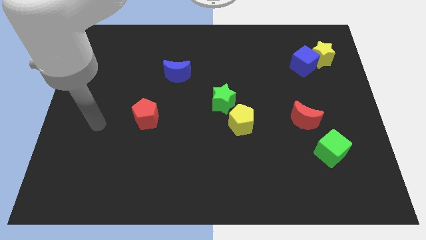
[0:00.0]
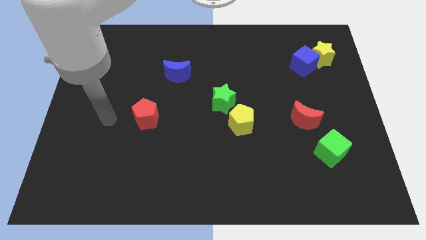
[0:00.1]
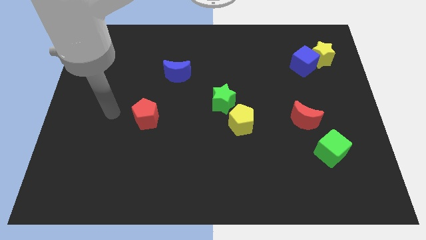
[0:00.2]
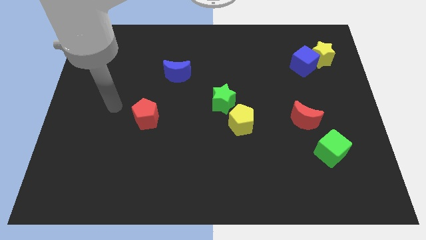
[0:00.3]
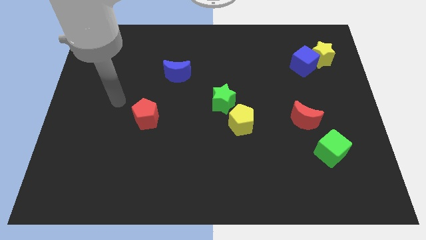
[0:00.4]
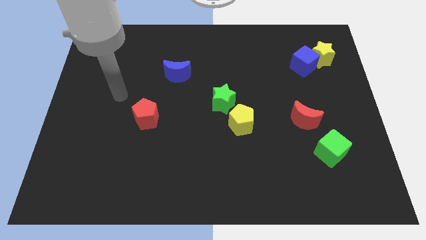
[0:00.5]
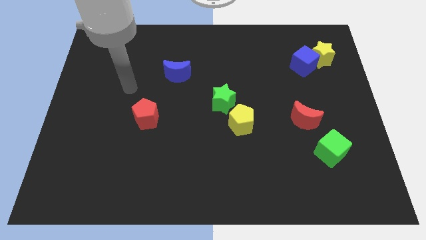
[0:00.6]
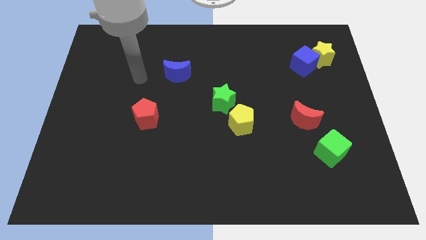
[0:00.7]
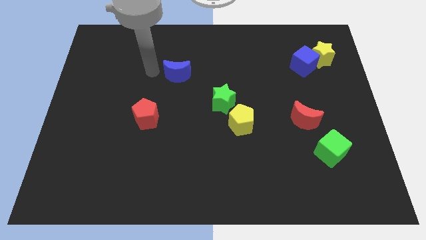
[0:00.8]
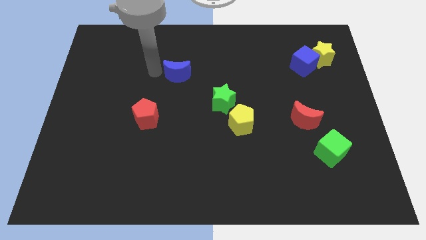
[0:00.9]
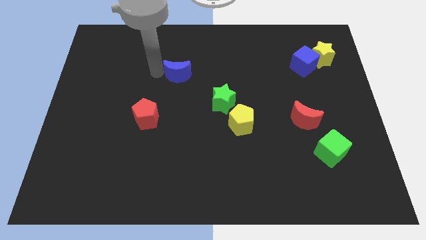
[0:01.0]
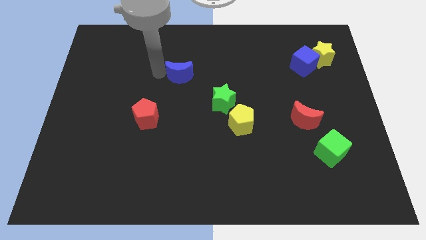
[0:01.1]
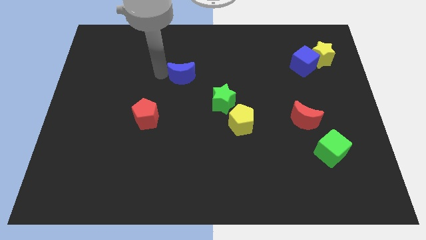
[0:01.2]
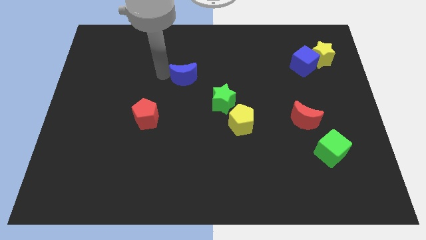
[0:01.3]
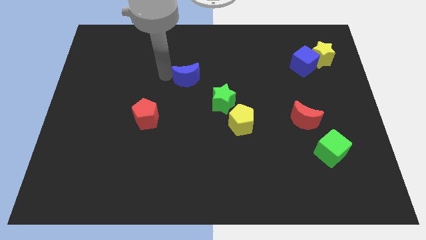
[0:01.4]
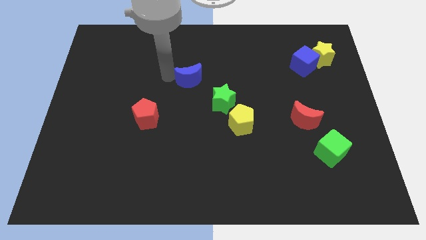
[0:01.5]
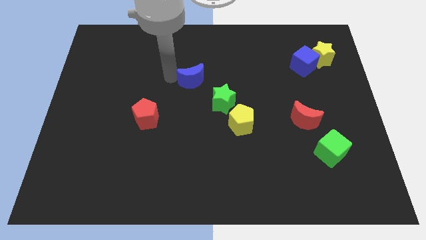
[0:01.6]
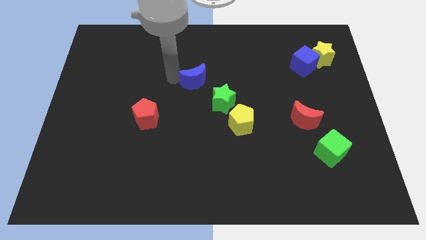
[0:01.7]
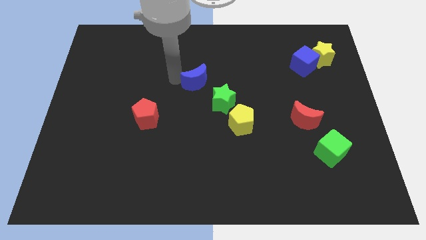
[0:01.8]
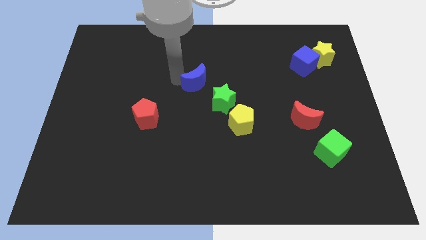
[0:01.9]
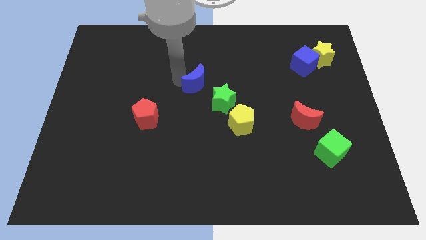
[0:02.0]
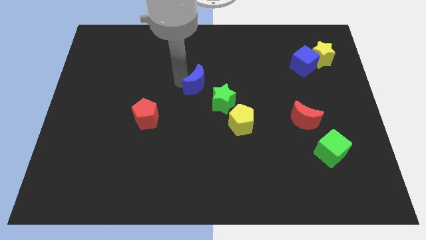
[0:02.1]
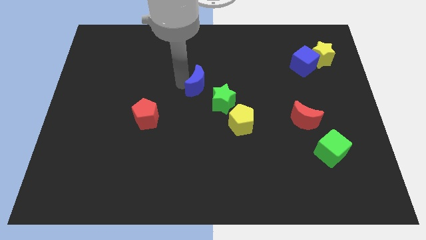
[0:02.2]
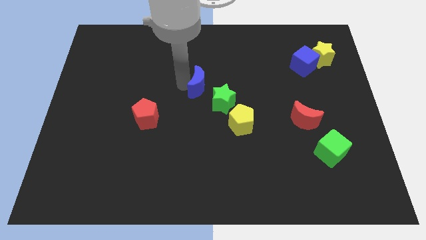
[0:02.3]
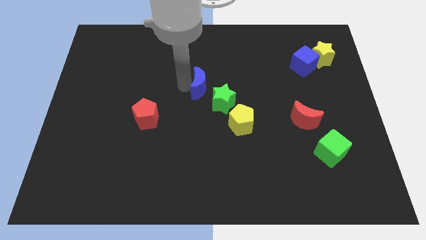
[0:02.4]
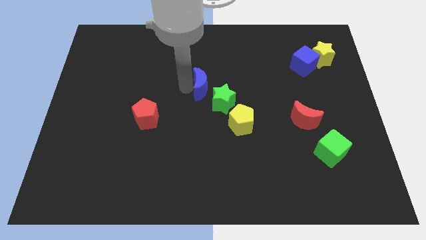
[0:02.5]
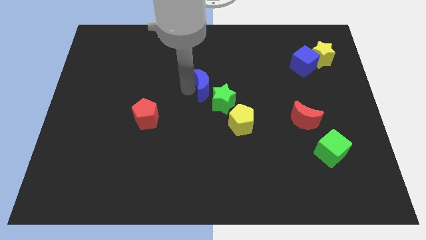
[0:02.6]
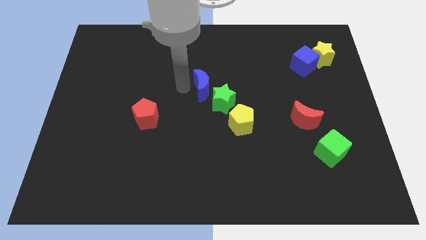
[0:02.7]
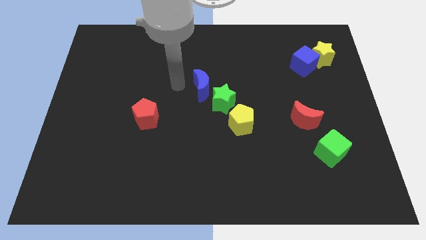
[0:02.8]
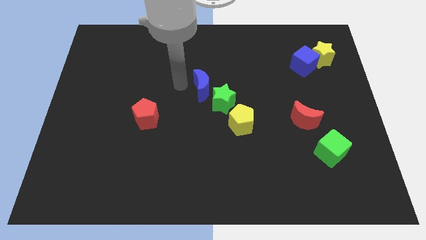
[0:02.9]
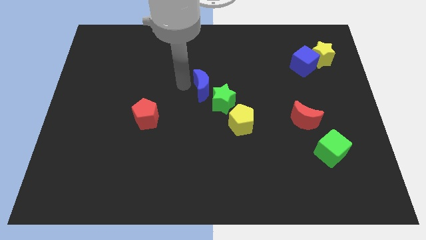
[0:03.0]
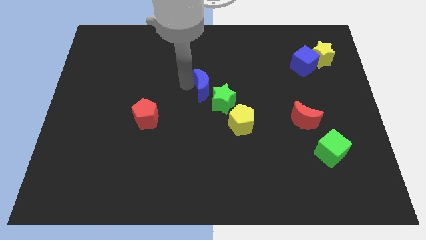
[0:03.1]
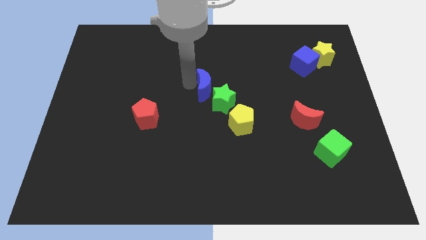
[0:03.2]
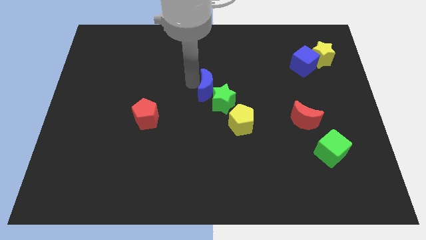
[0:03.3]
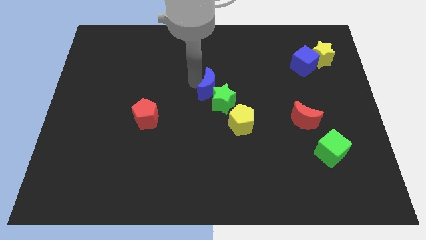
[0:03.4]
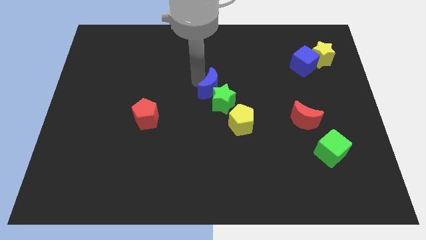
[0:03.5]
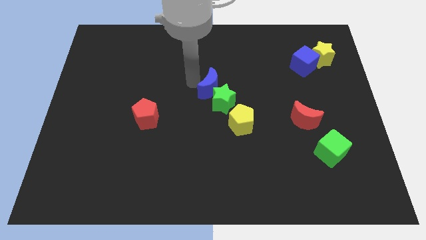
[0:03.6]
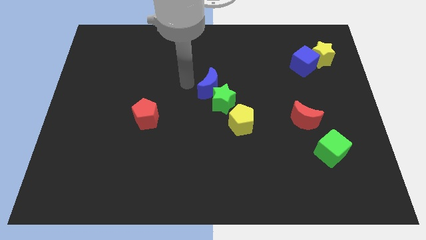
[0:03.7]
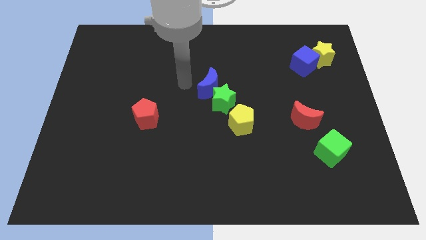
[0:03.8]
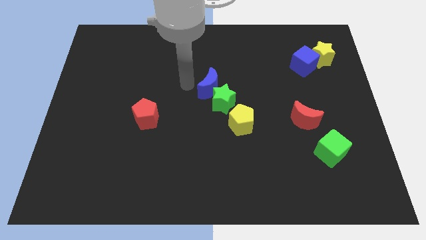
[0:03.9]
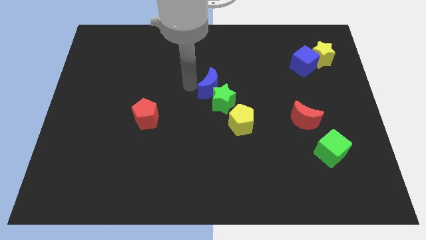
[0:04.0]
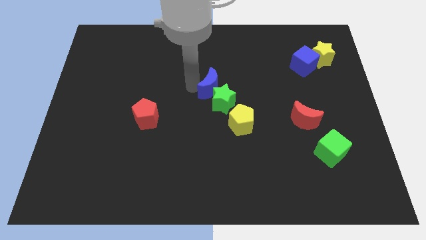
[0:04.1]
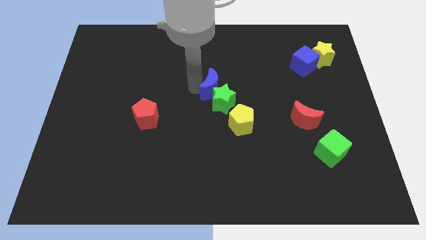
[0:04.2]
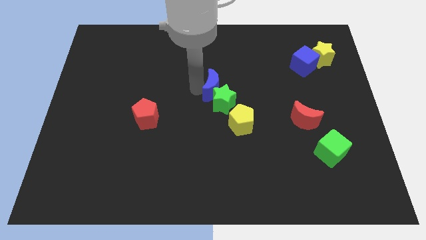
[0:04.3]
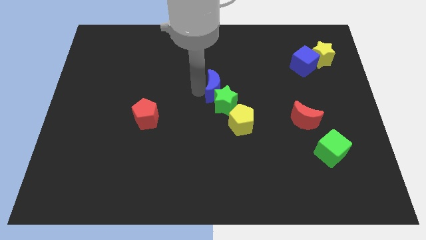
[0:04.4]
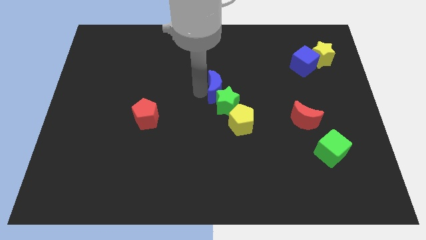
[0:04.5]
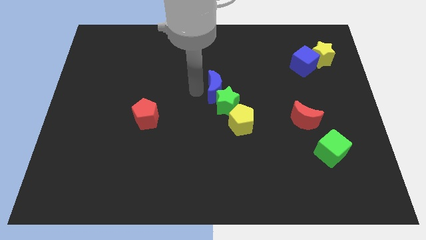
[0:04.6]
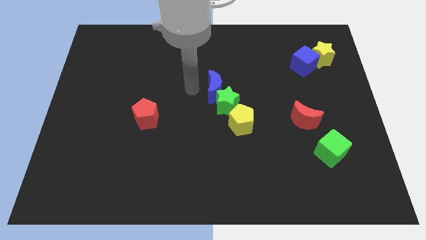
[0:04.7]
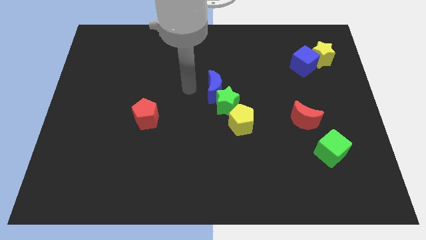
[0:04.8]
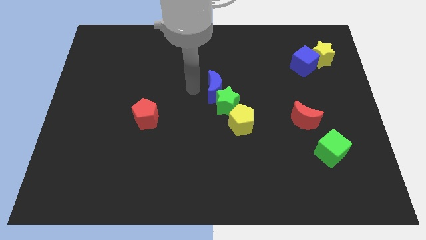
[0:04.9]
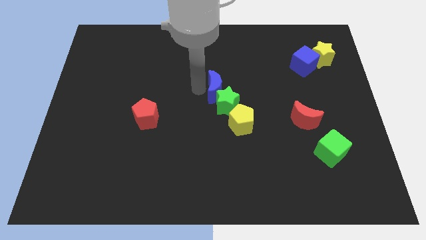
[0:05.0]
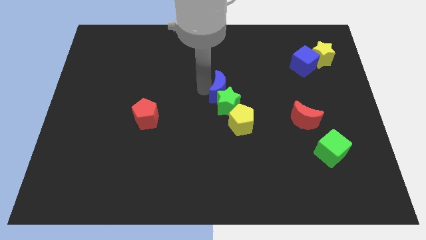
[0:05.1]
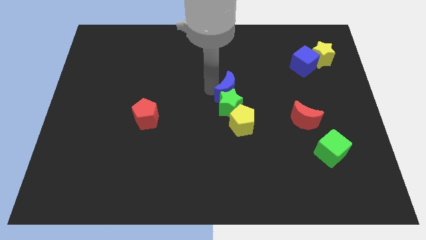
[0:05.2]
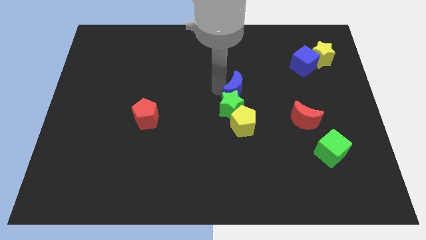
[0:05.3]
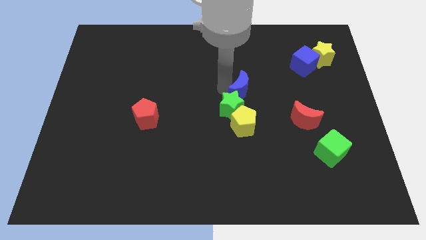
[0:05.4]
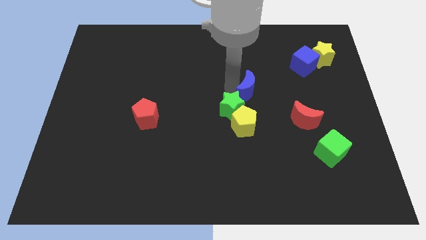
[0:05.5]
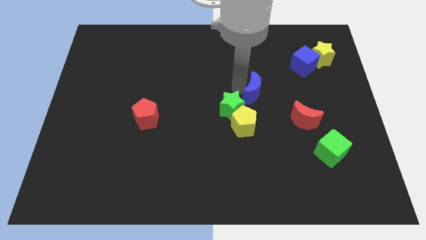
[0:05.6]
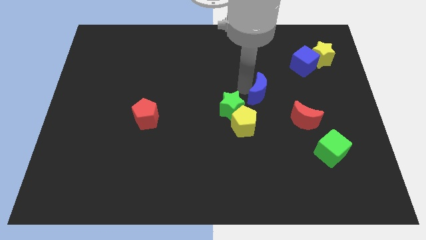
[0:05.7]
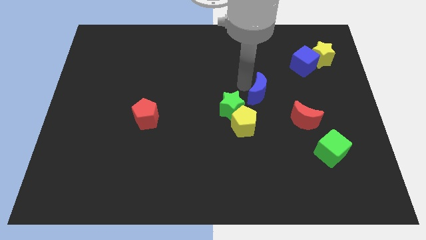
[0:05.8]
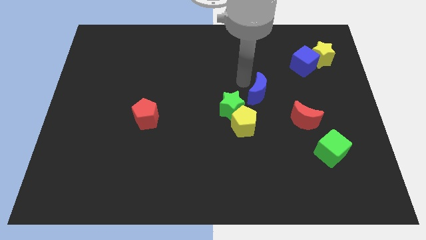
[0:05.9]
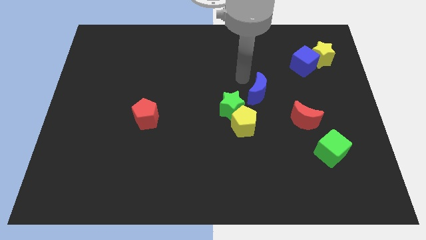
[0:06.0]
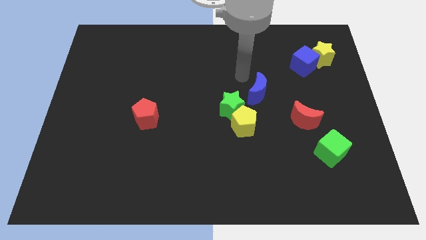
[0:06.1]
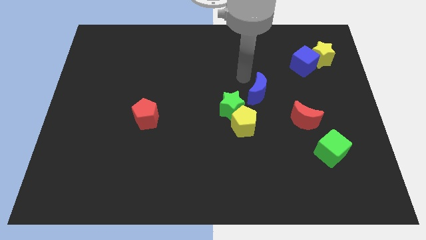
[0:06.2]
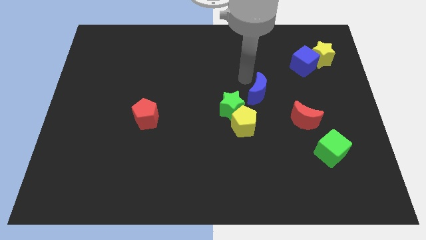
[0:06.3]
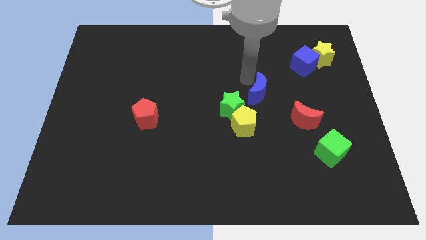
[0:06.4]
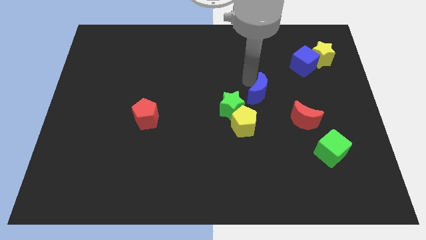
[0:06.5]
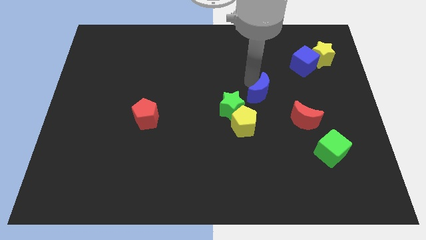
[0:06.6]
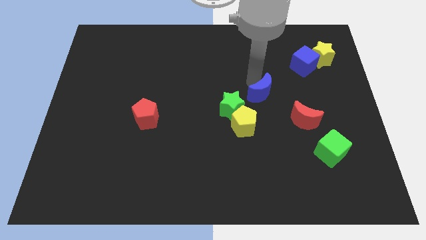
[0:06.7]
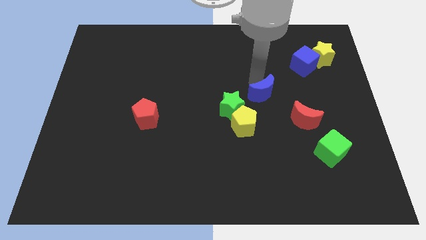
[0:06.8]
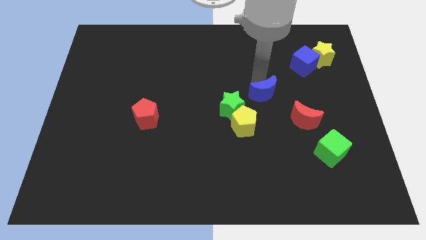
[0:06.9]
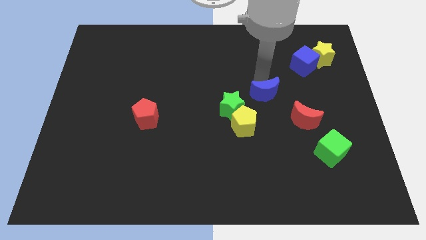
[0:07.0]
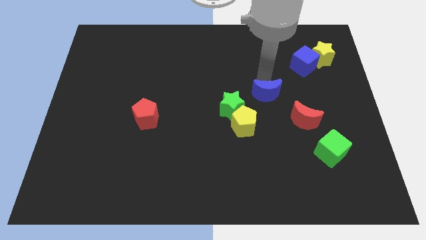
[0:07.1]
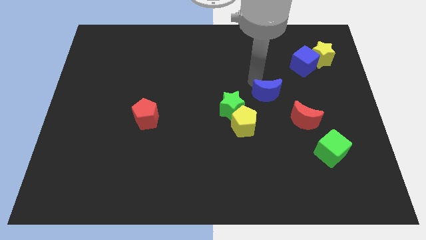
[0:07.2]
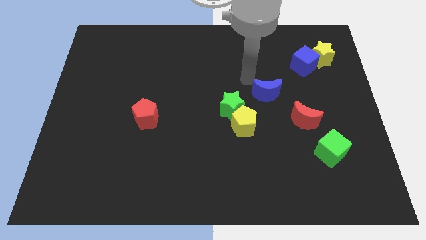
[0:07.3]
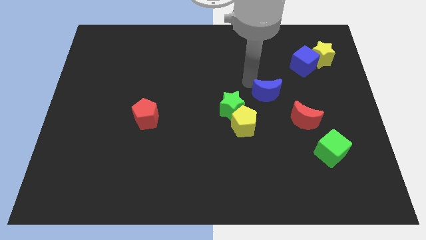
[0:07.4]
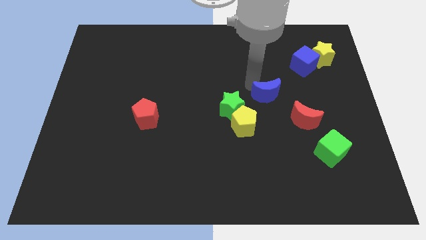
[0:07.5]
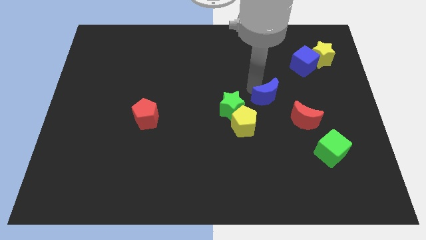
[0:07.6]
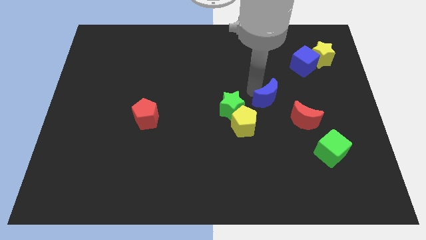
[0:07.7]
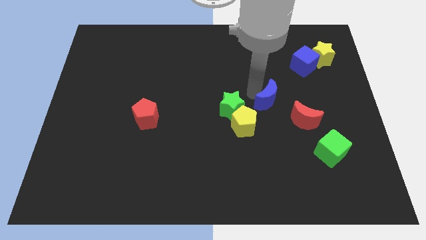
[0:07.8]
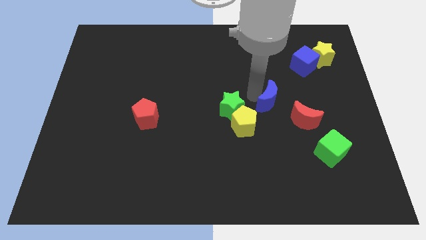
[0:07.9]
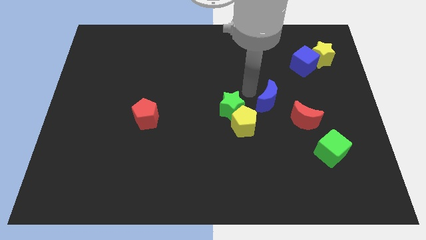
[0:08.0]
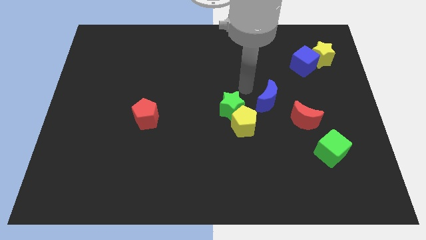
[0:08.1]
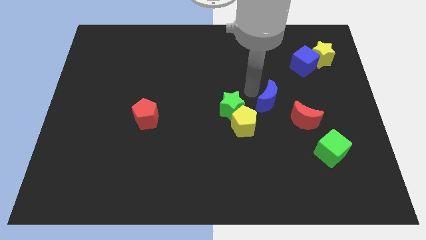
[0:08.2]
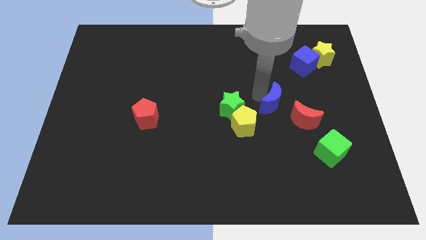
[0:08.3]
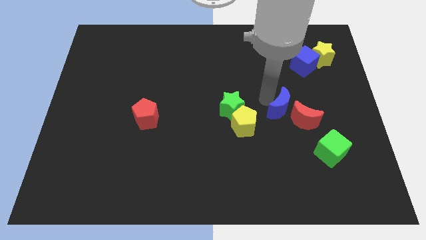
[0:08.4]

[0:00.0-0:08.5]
push the blue moon to the red moon
